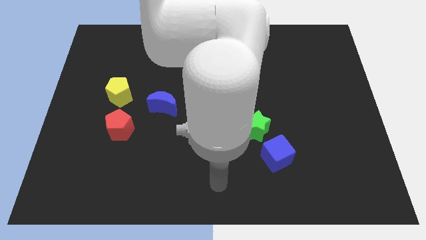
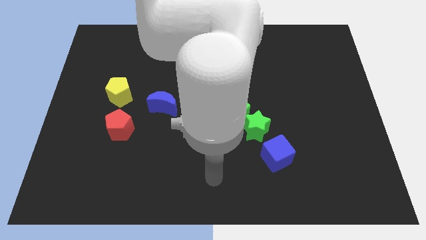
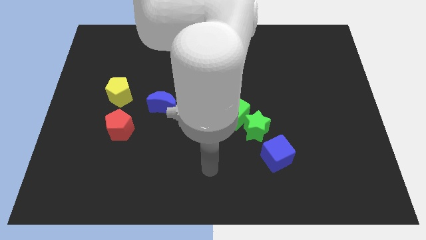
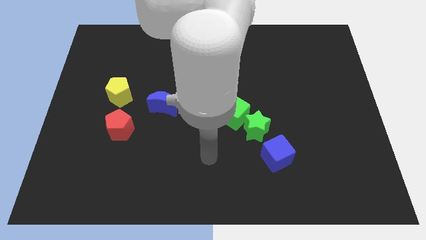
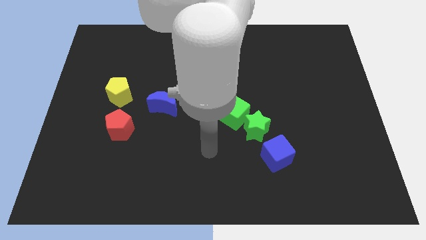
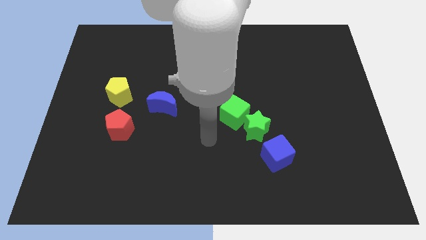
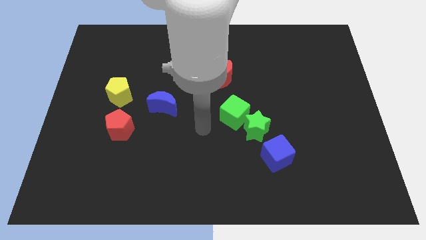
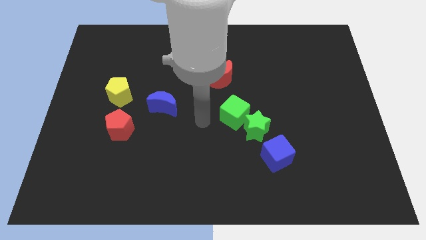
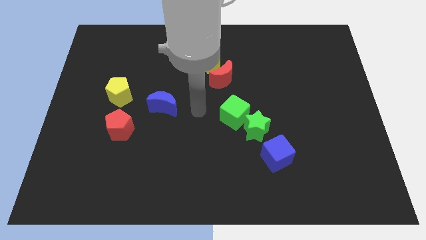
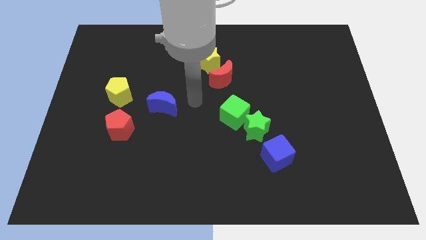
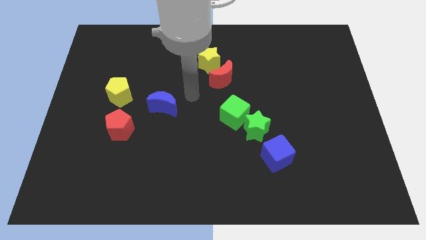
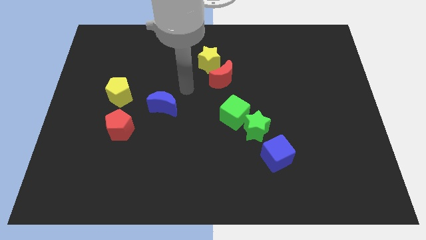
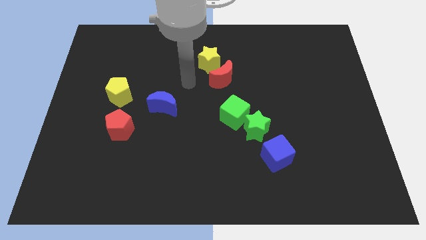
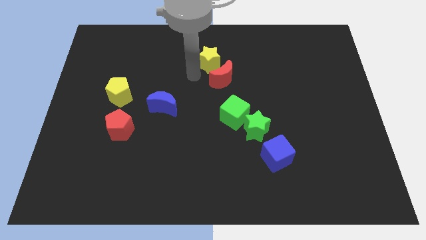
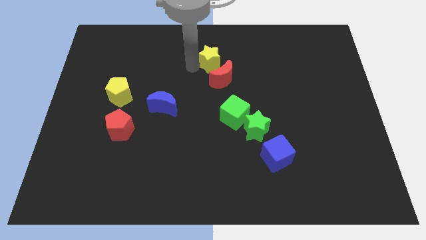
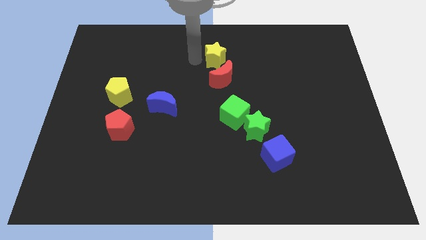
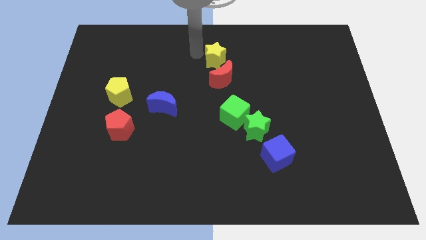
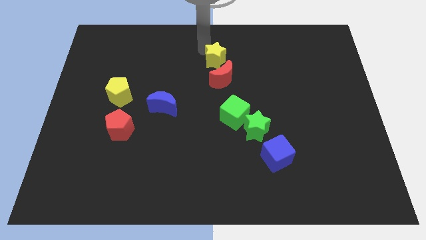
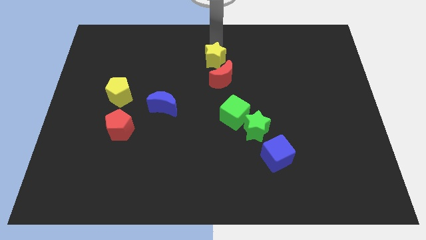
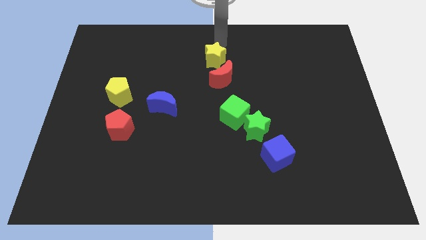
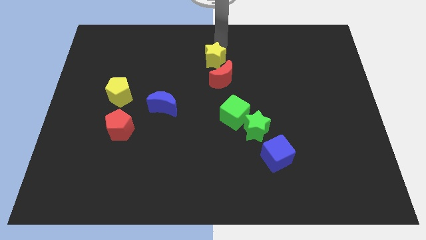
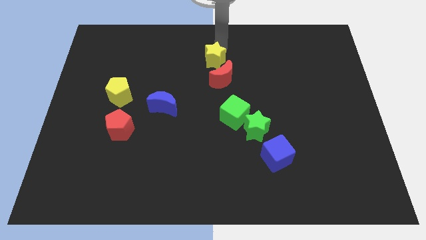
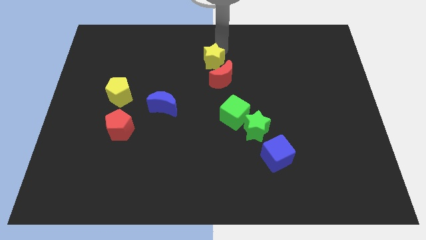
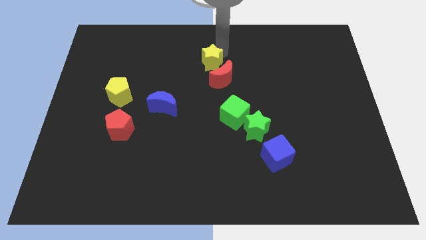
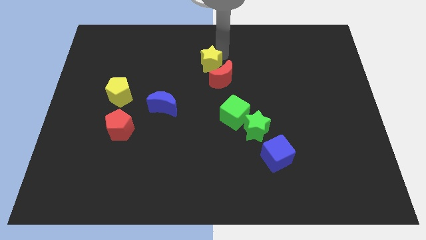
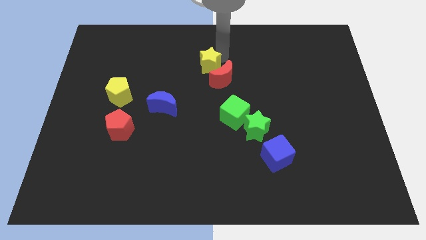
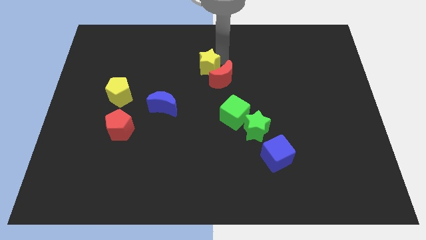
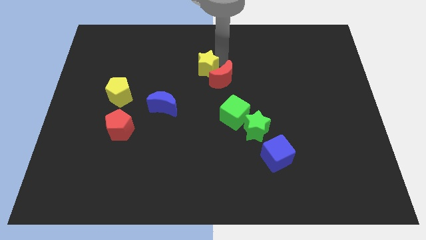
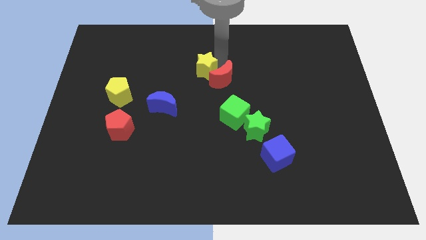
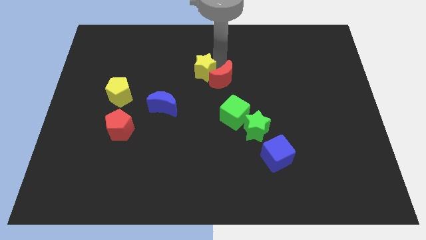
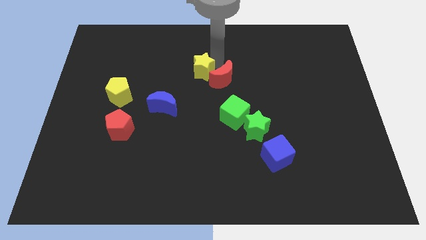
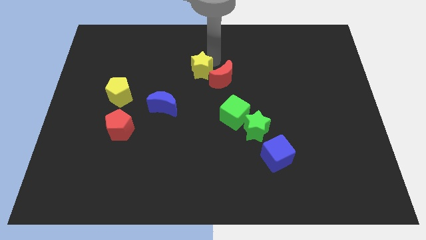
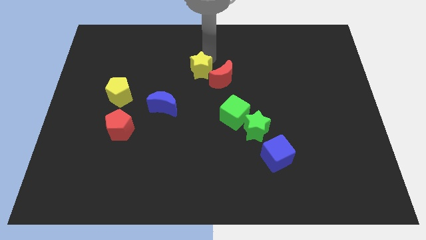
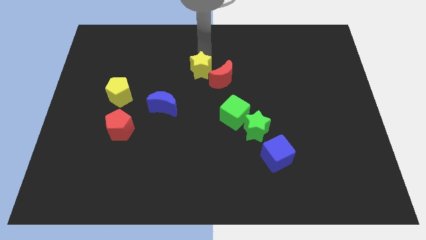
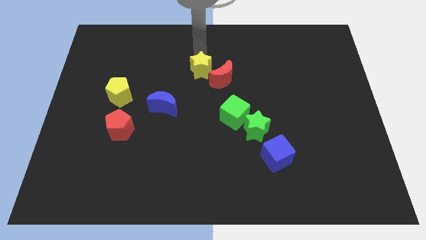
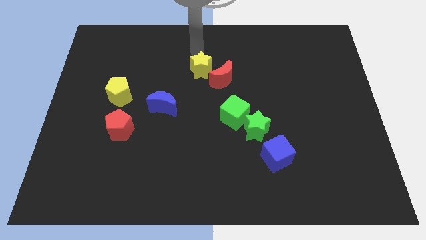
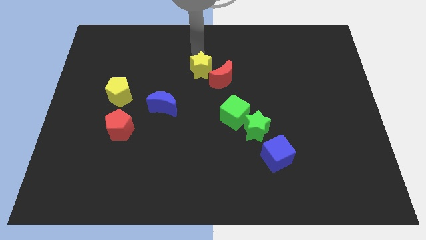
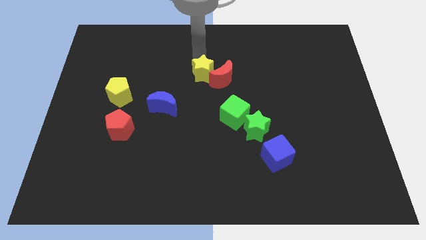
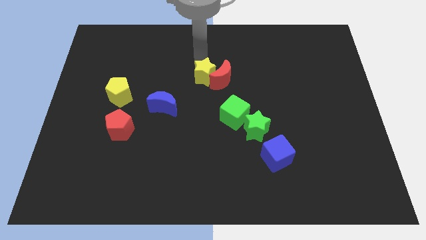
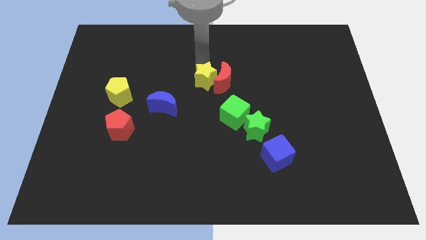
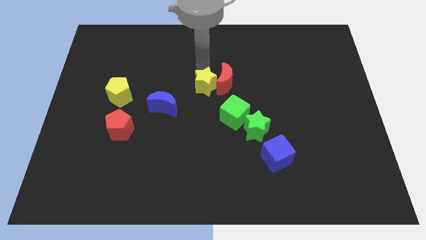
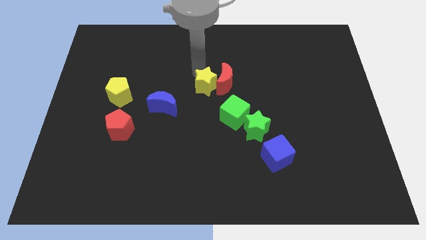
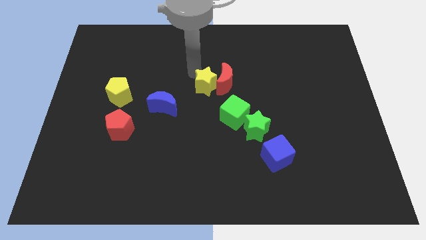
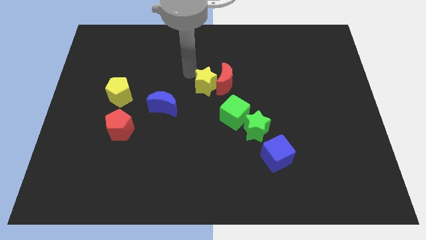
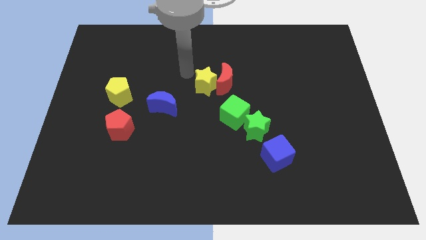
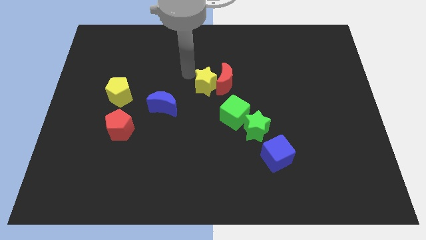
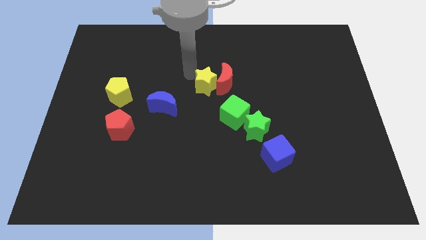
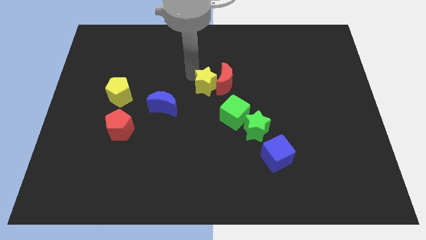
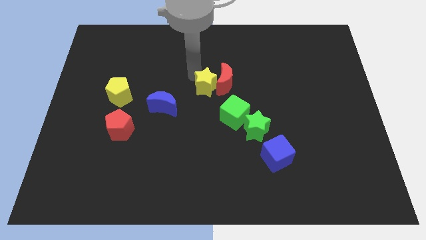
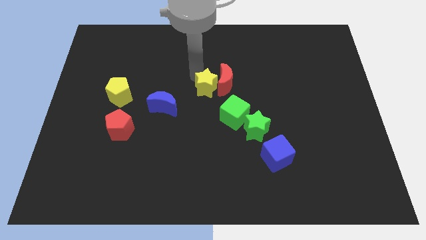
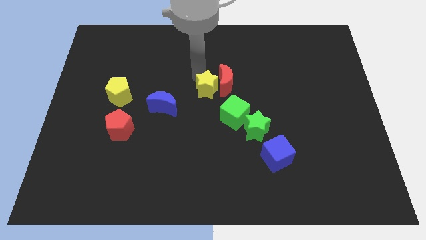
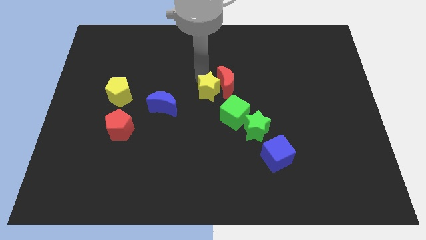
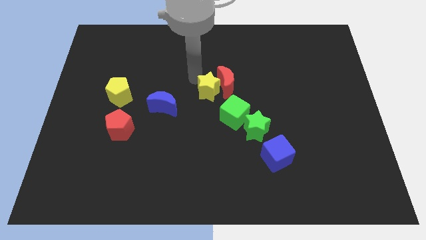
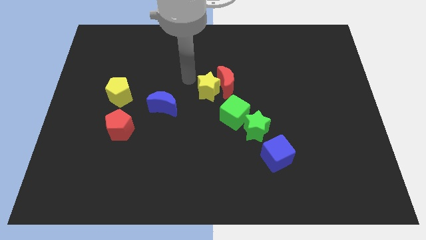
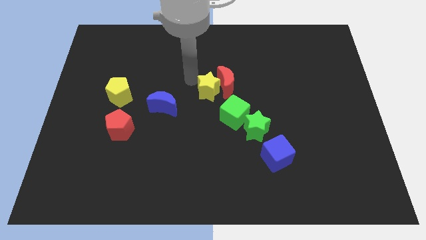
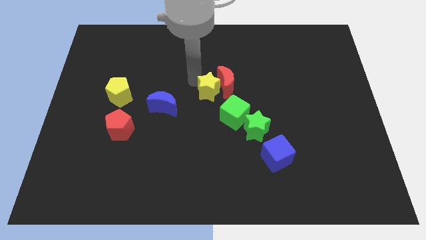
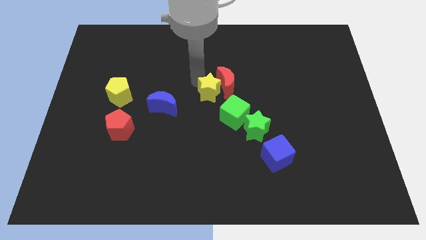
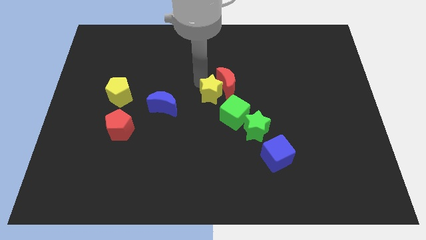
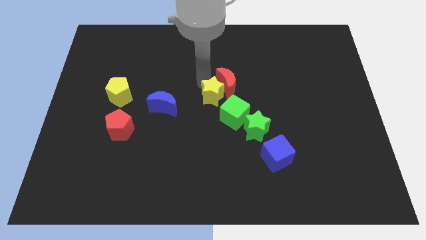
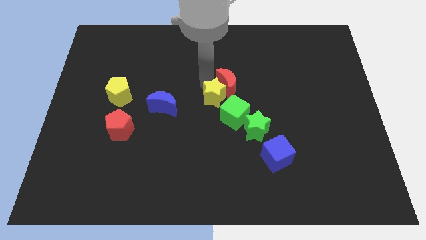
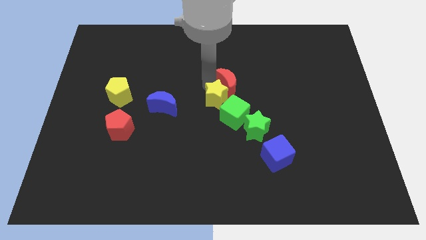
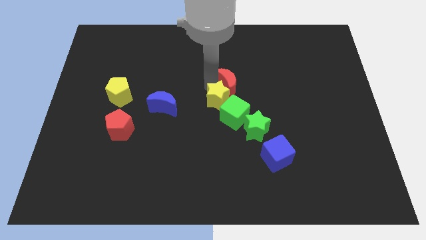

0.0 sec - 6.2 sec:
push the yellow star next to the green cube

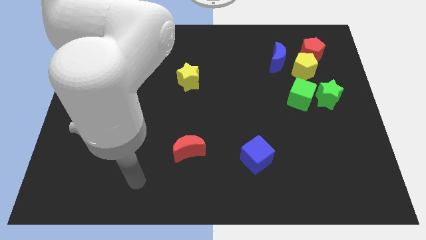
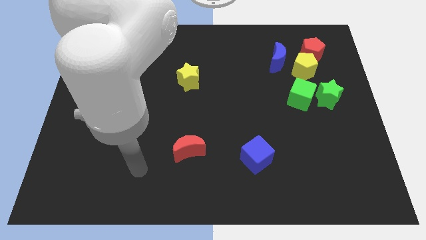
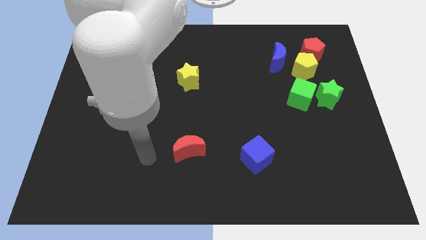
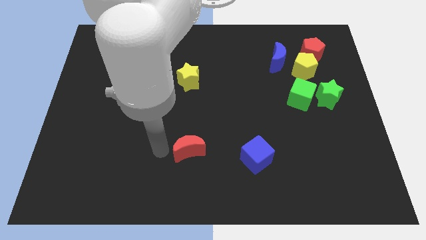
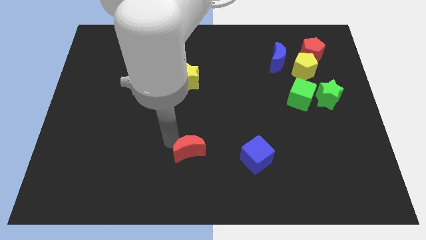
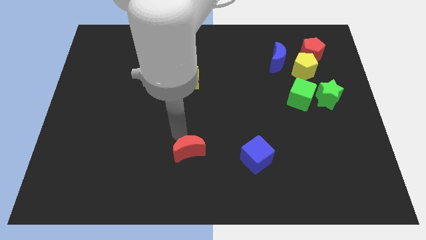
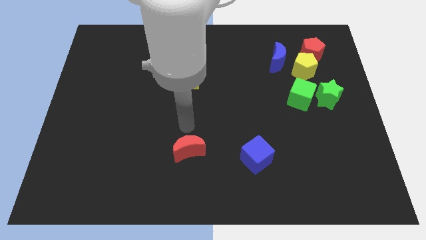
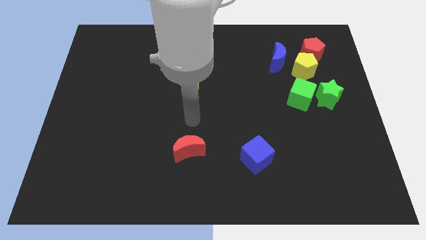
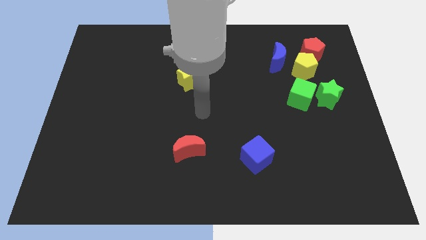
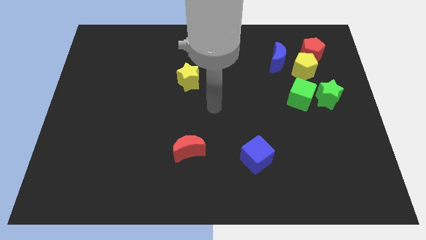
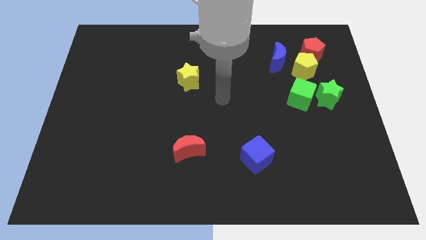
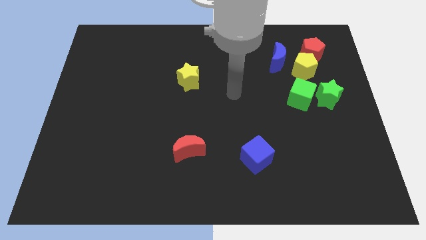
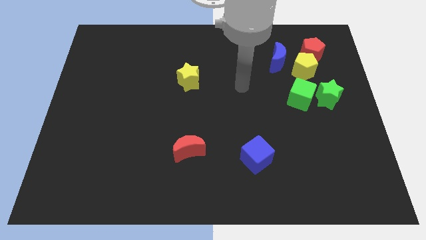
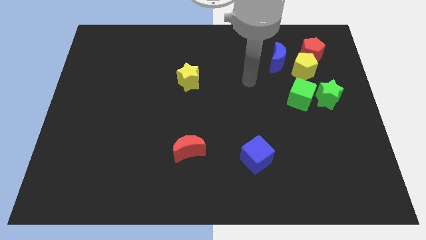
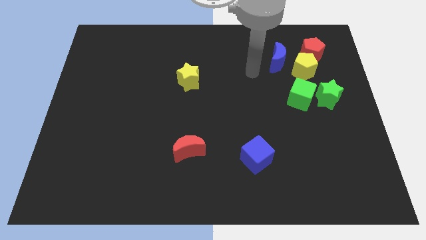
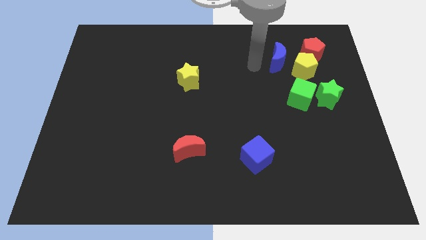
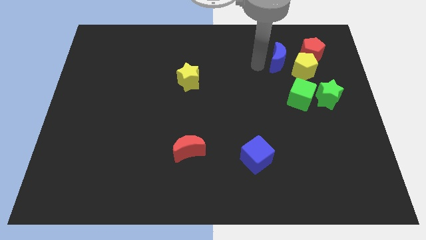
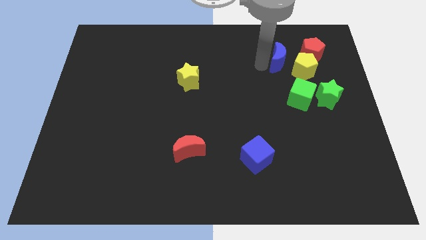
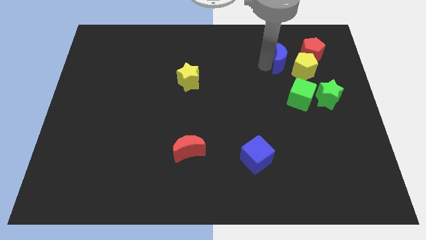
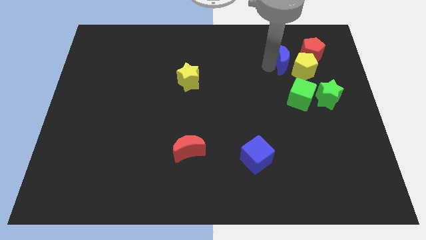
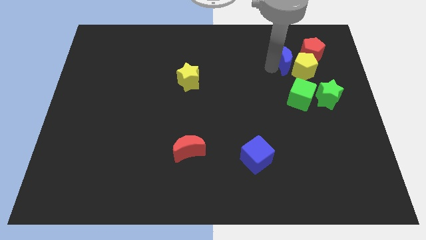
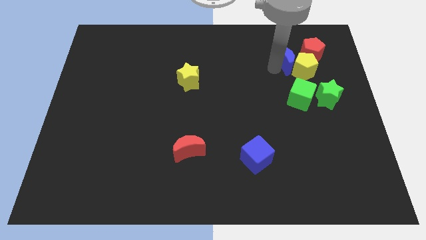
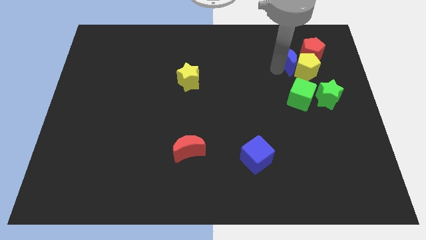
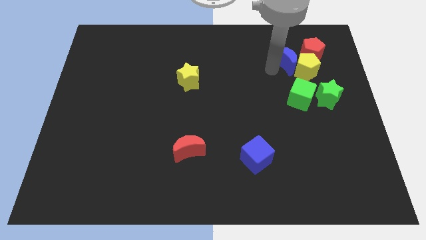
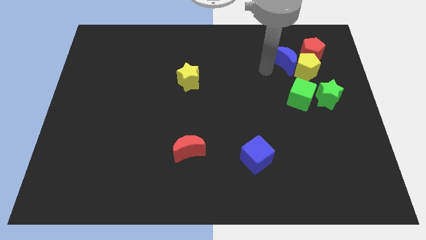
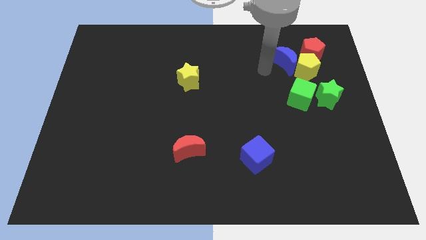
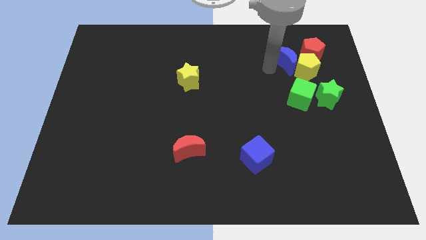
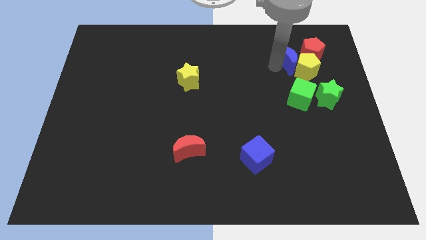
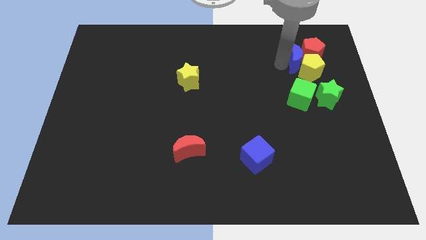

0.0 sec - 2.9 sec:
slide the blue moon next to the red pentagon
